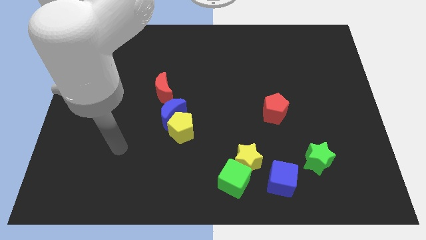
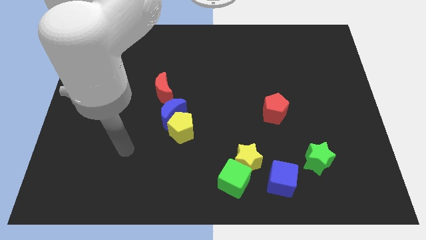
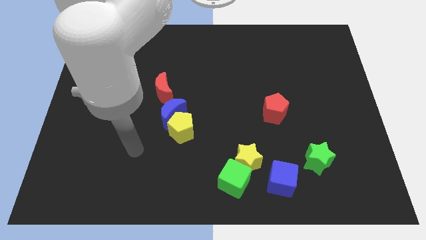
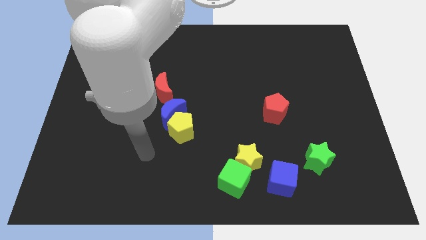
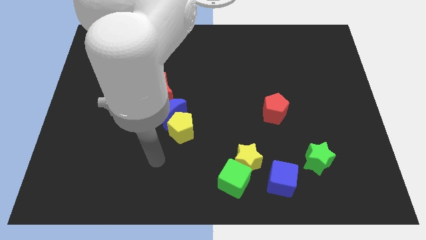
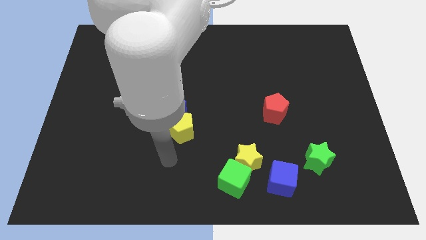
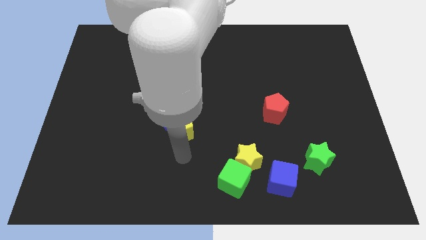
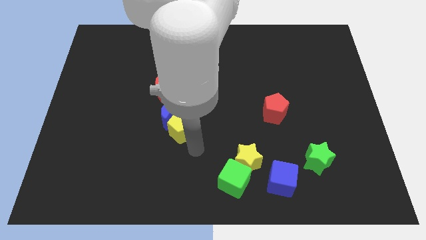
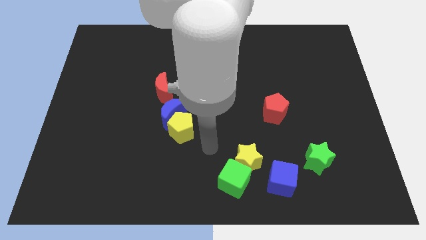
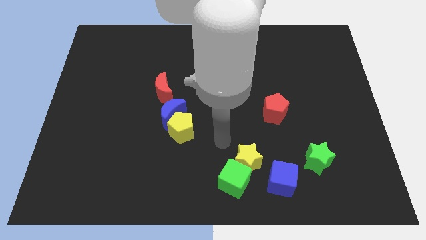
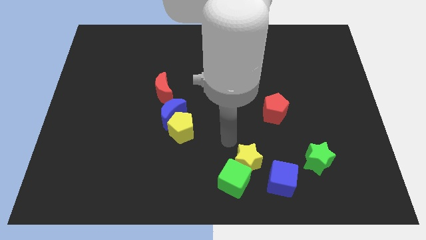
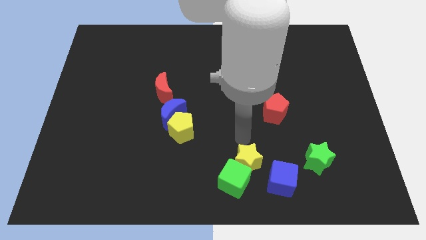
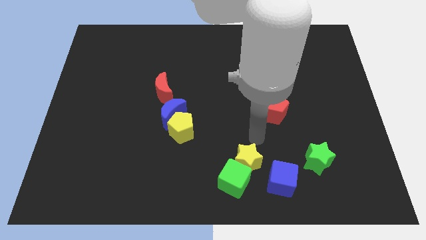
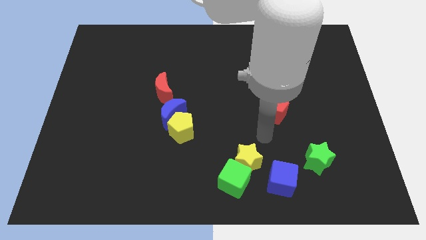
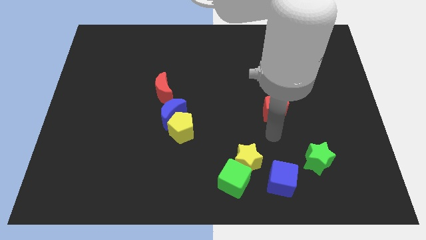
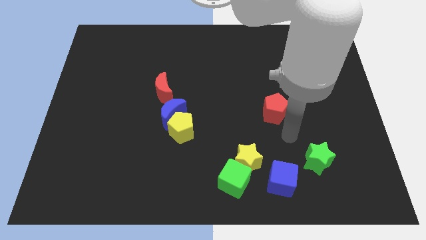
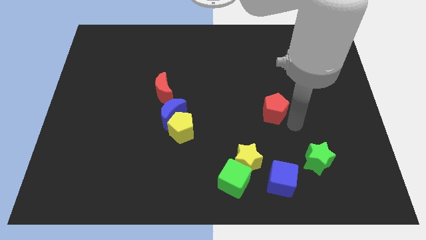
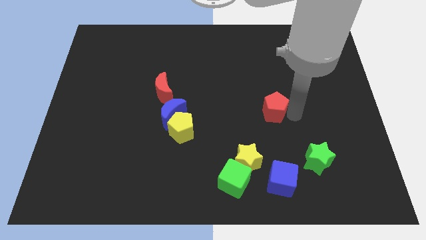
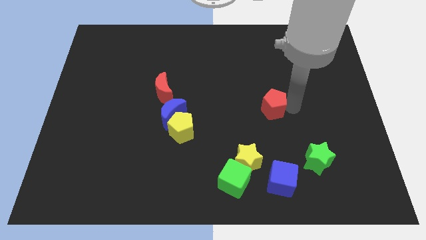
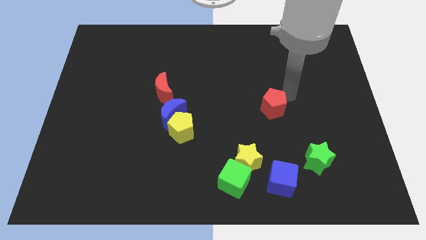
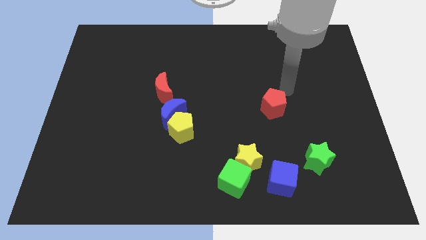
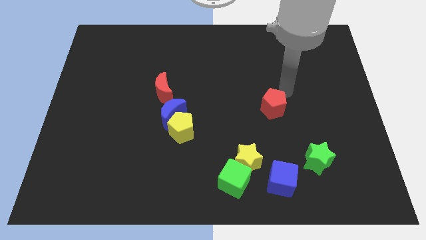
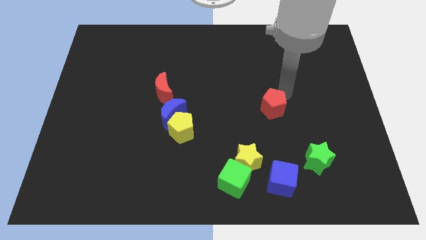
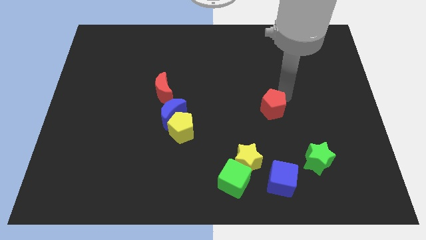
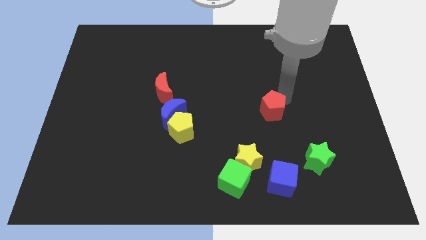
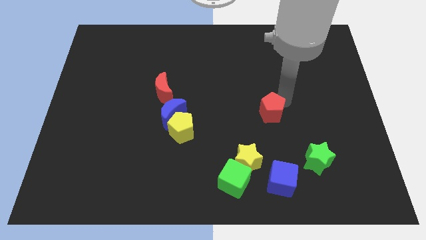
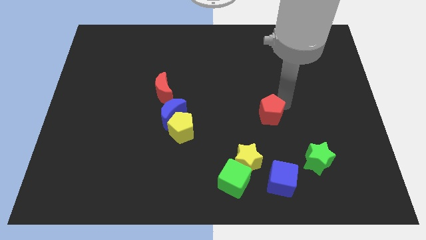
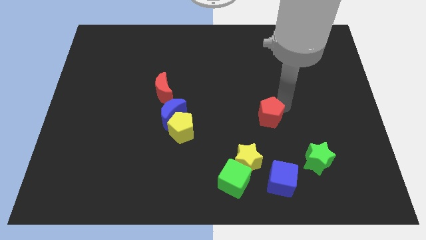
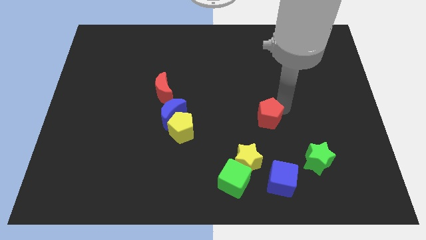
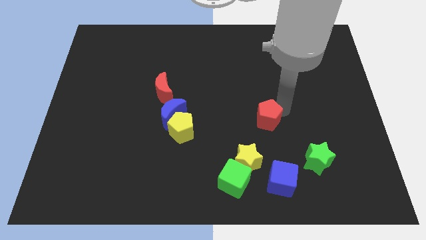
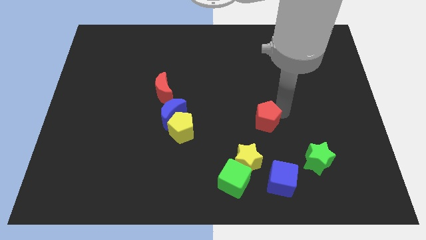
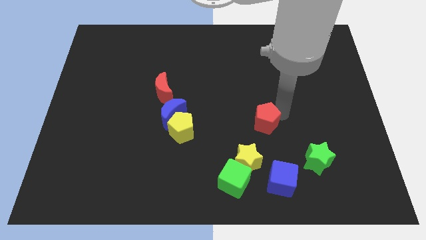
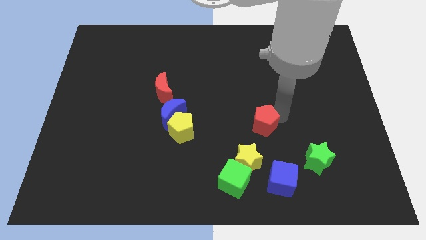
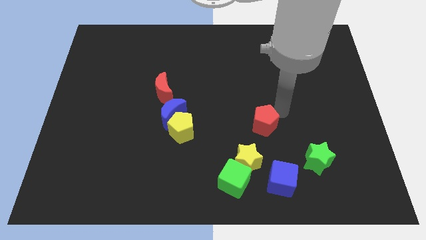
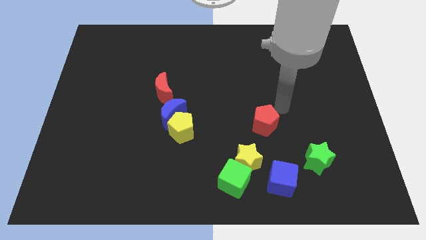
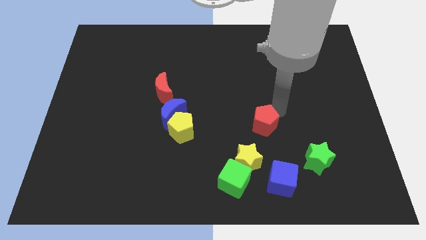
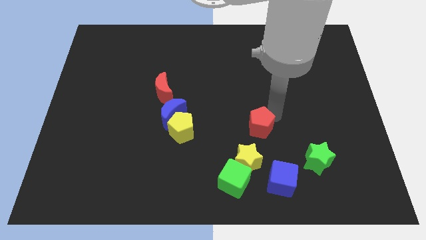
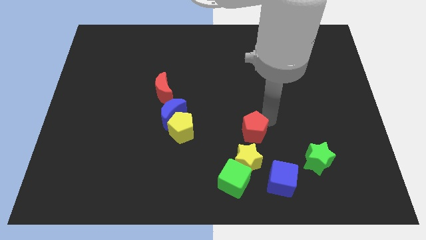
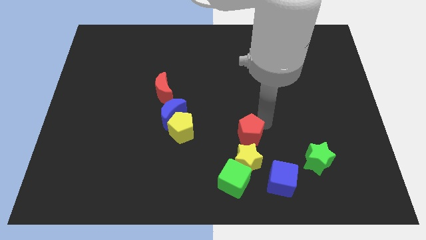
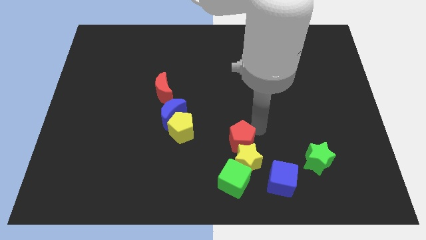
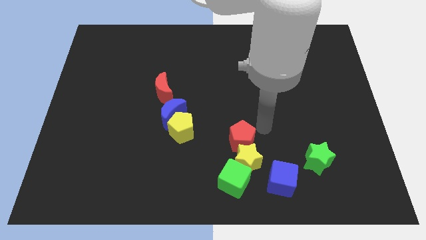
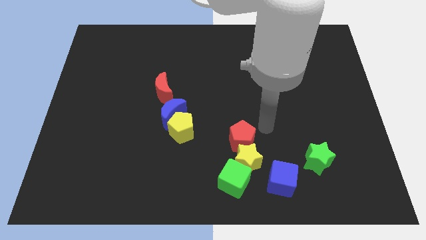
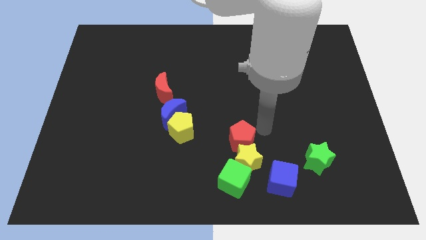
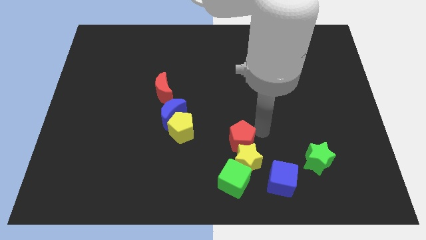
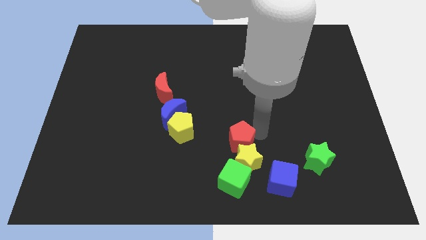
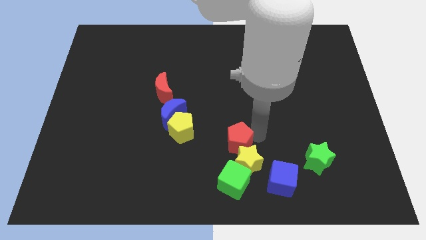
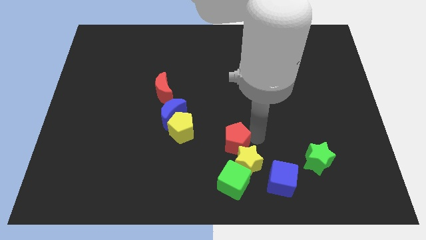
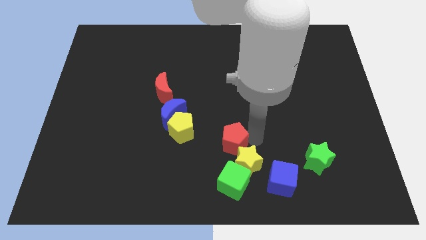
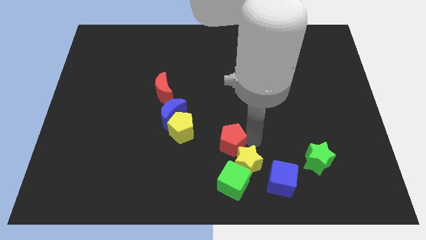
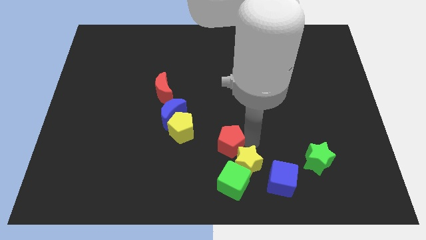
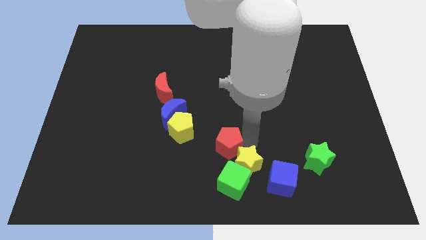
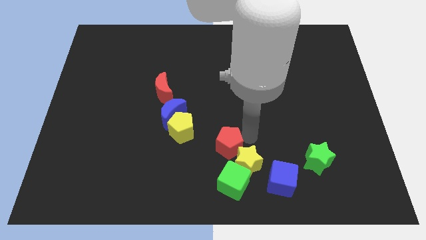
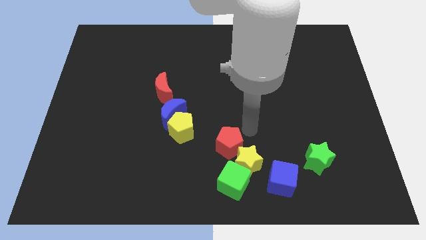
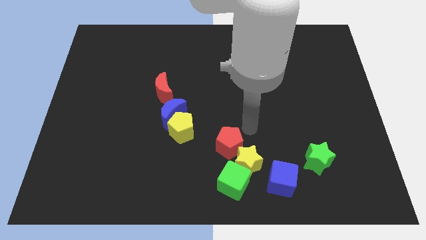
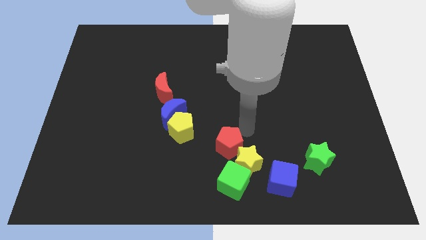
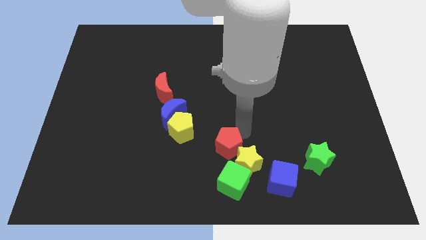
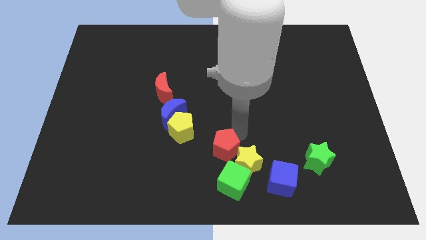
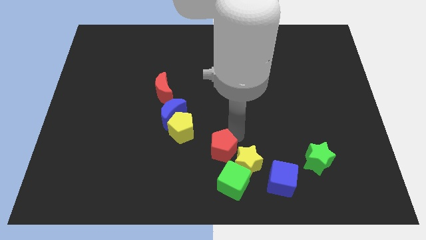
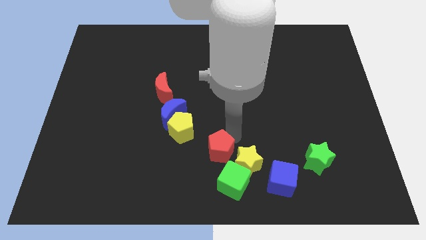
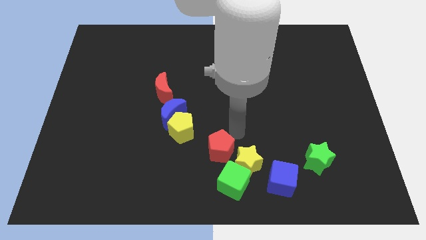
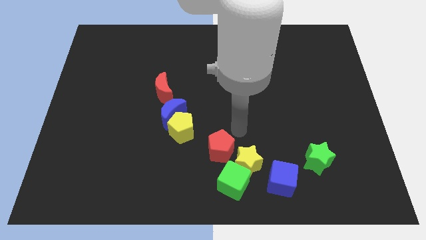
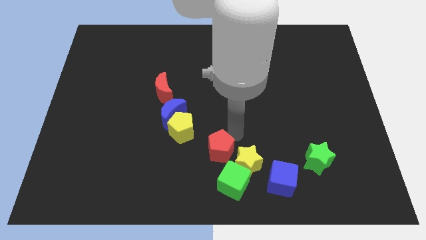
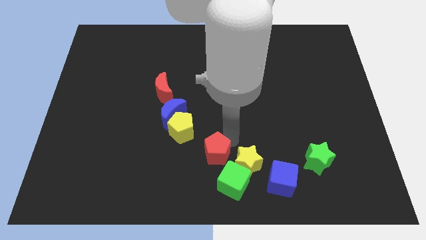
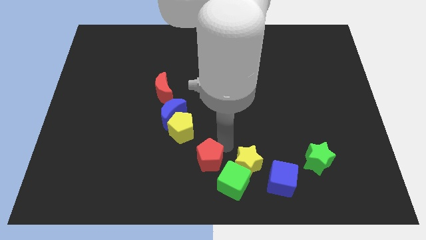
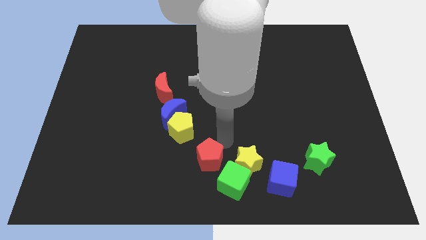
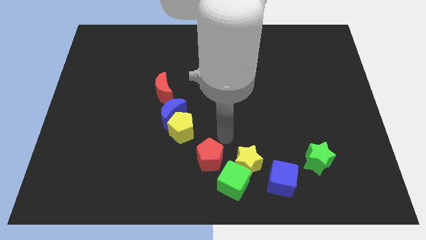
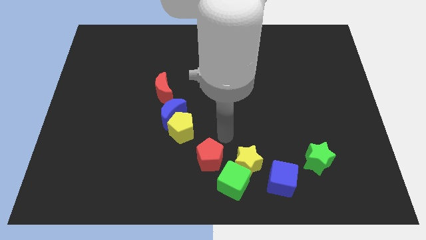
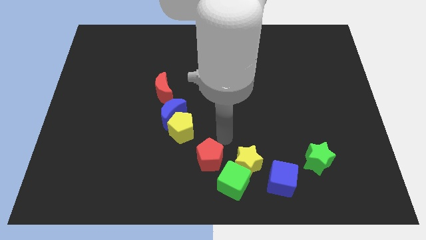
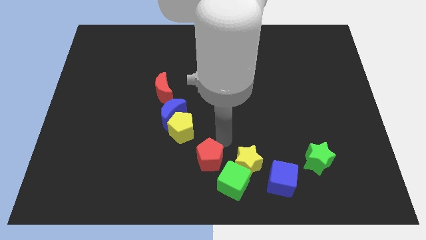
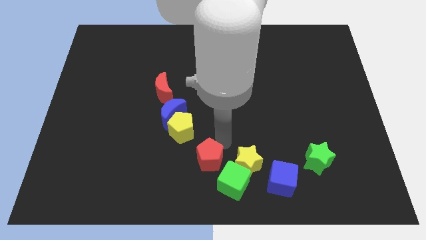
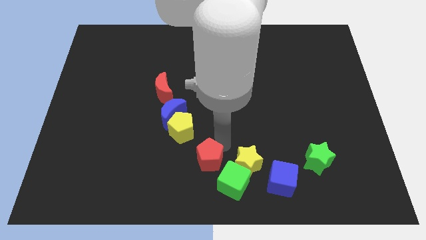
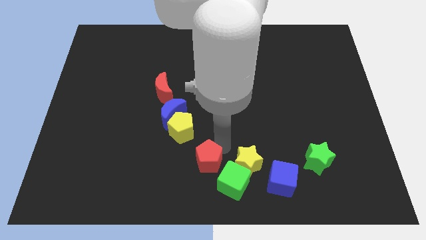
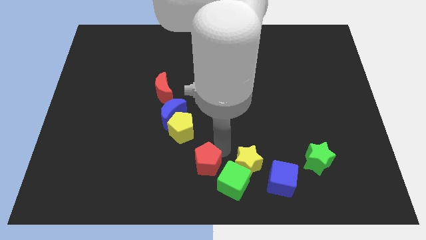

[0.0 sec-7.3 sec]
put the red pentagon to the left side of the green cube

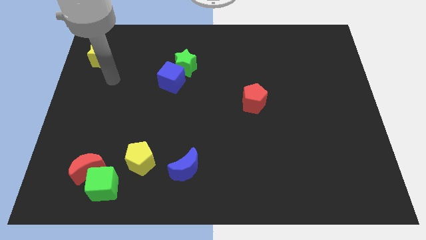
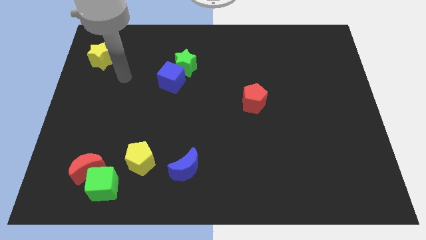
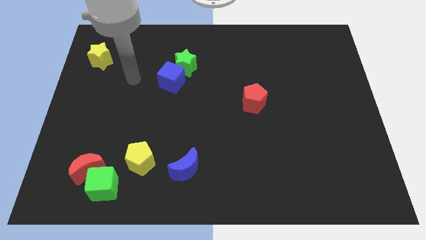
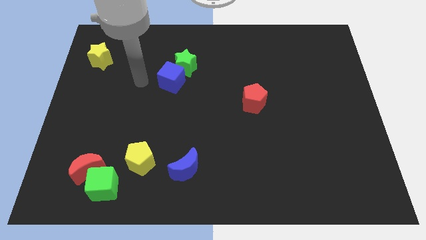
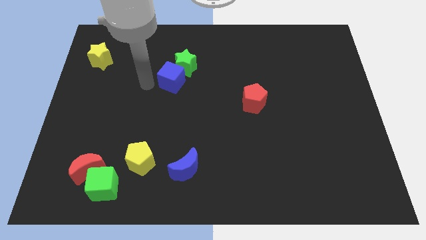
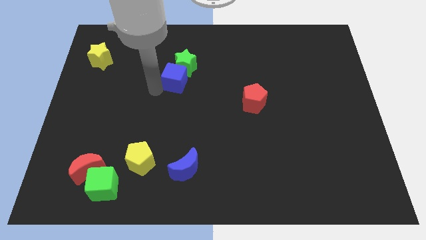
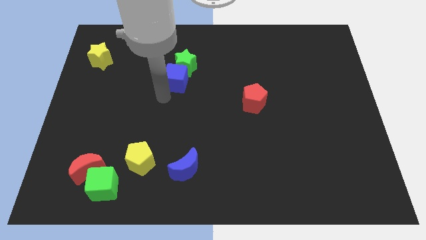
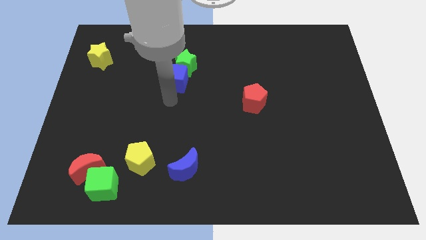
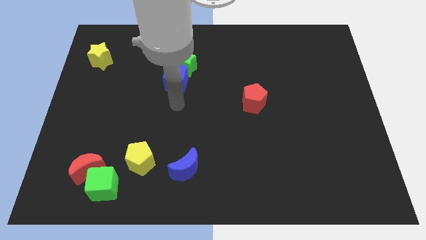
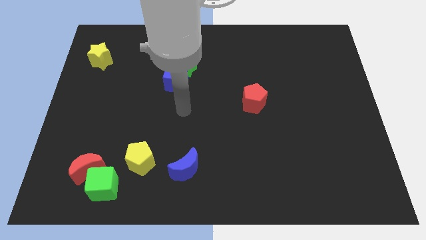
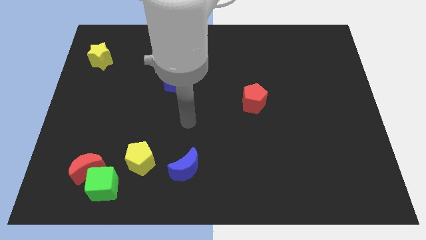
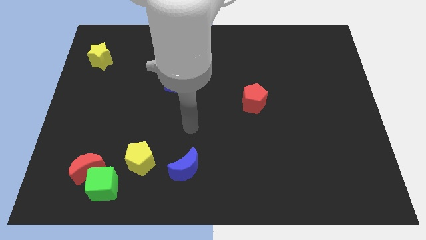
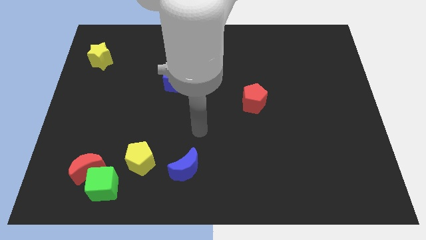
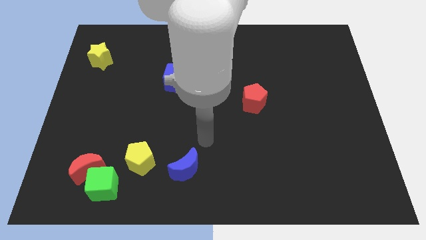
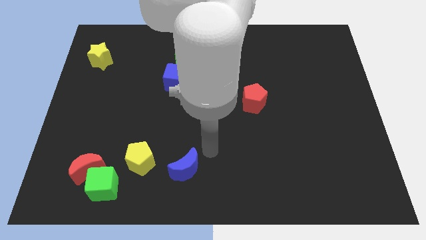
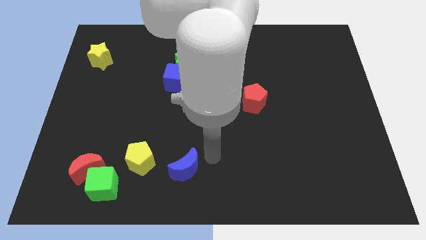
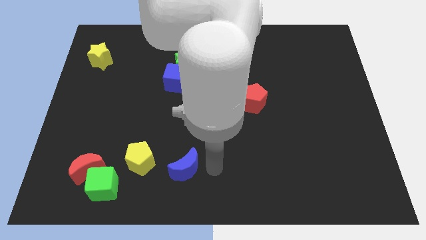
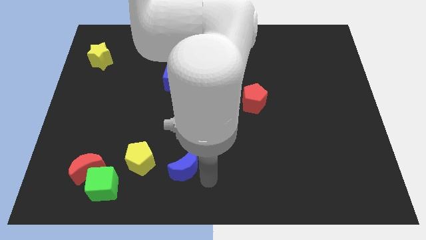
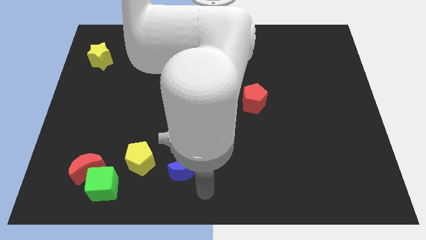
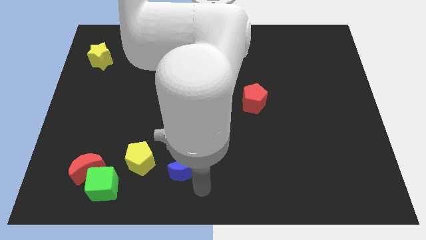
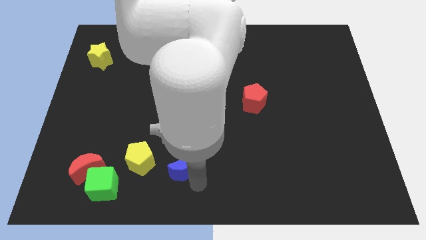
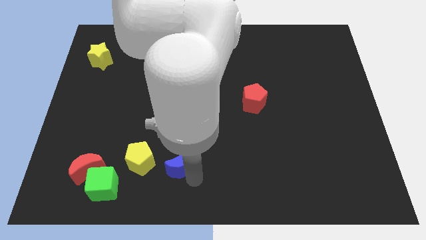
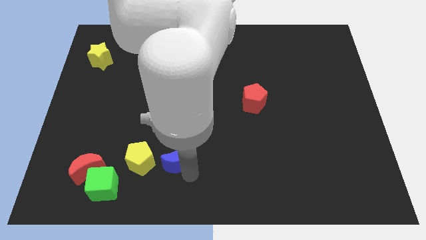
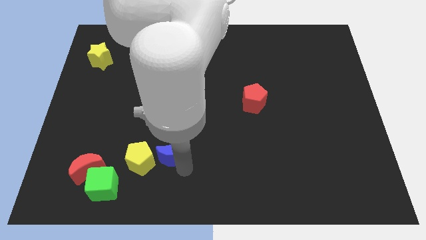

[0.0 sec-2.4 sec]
slide the blue moon to the top right of the yellow pentagon
